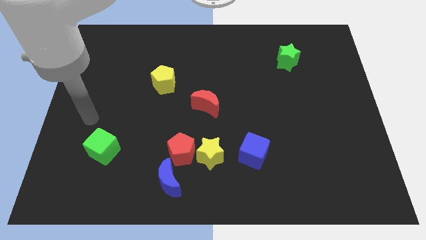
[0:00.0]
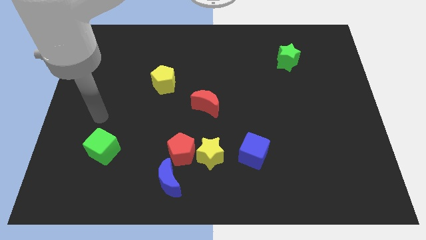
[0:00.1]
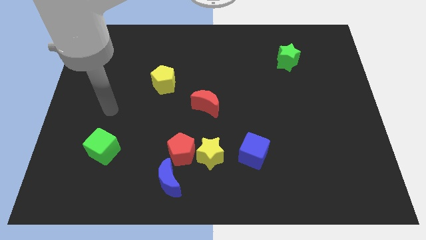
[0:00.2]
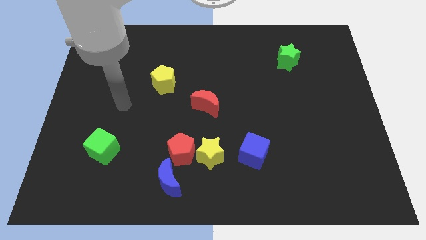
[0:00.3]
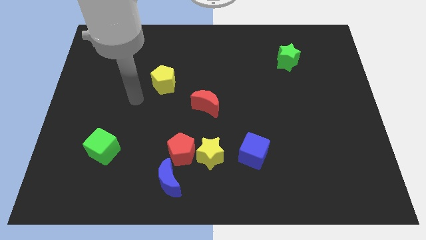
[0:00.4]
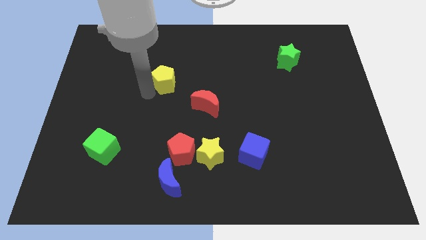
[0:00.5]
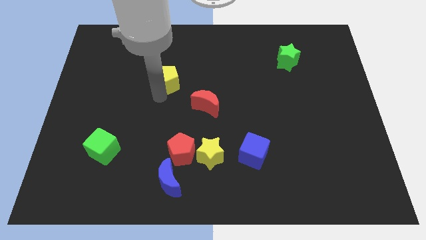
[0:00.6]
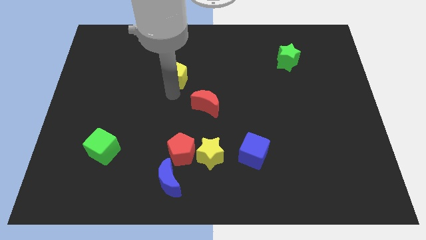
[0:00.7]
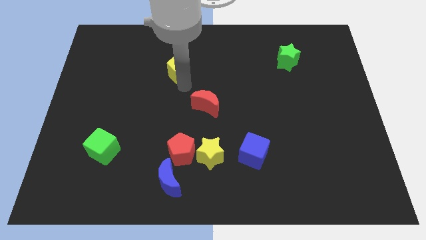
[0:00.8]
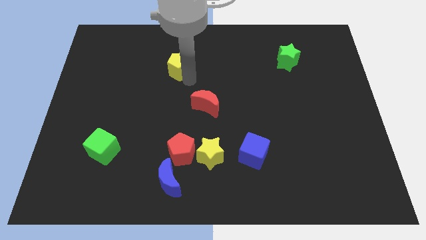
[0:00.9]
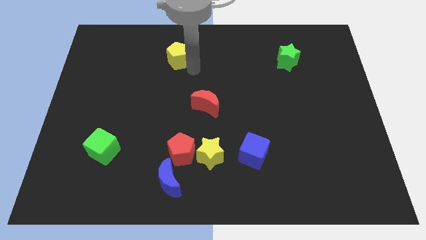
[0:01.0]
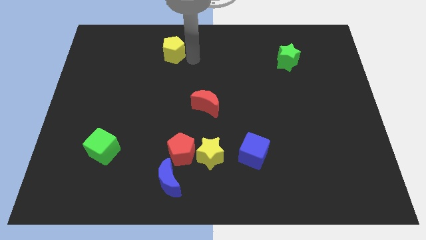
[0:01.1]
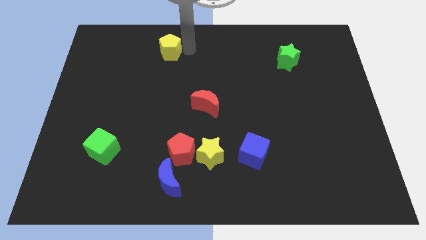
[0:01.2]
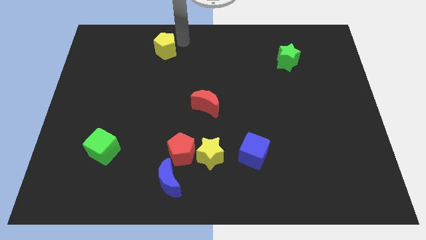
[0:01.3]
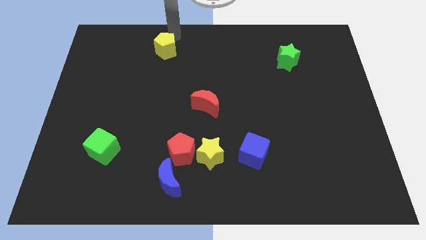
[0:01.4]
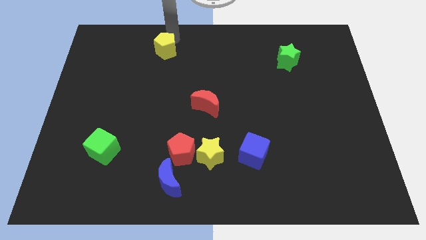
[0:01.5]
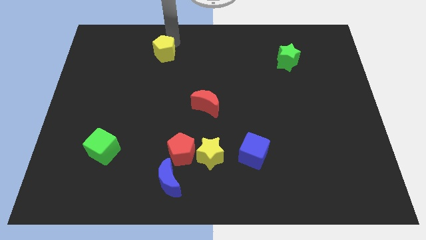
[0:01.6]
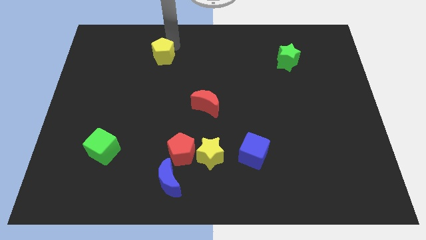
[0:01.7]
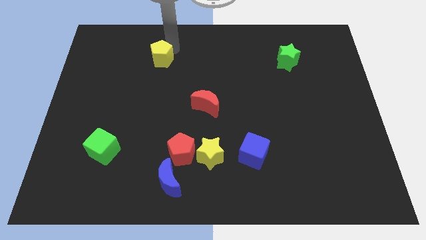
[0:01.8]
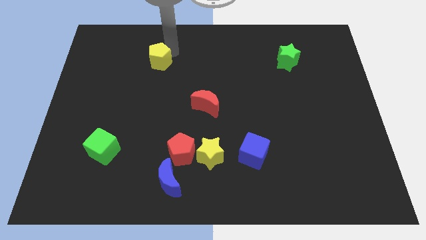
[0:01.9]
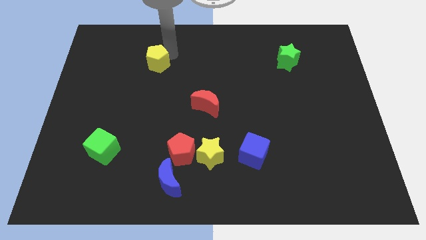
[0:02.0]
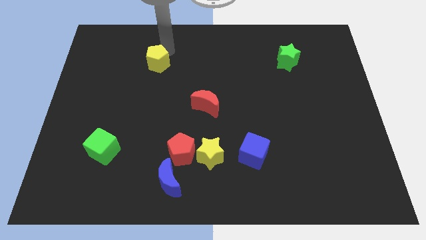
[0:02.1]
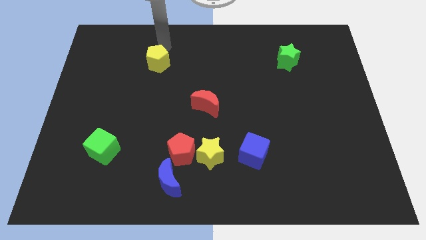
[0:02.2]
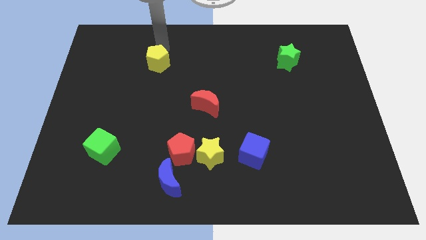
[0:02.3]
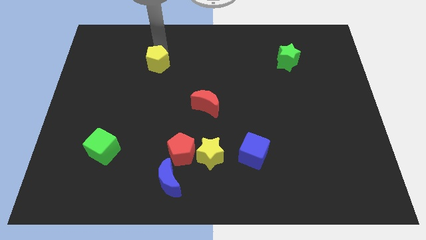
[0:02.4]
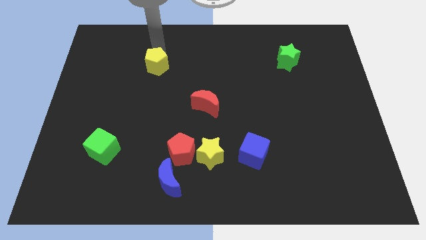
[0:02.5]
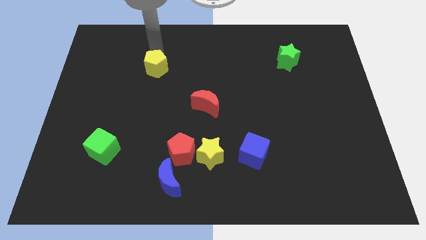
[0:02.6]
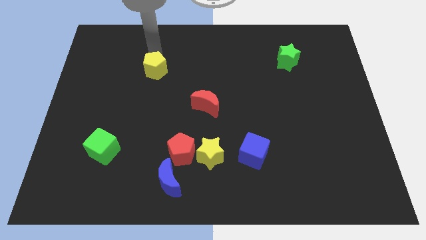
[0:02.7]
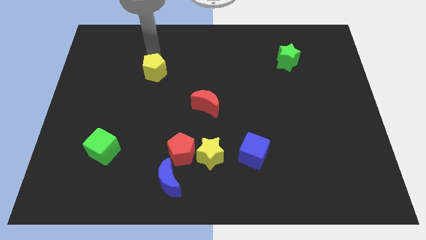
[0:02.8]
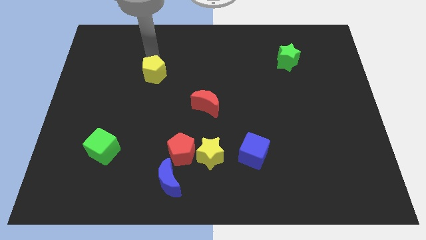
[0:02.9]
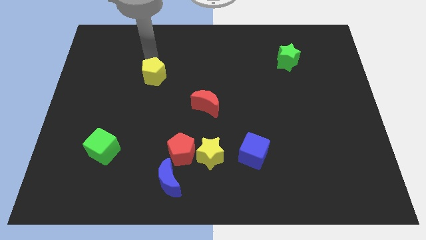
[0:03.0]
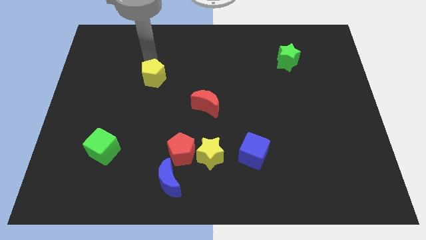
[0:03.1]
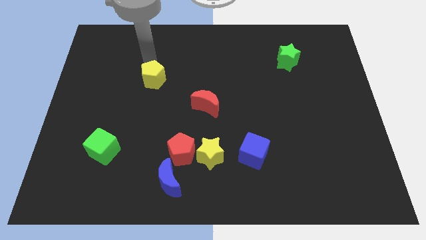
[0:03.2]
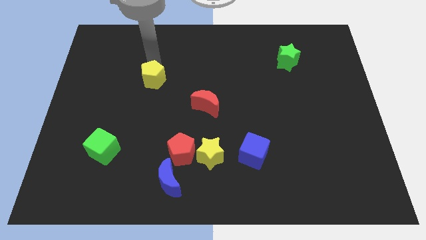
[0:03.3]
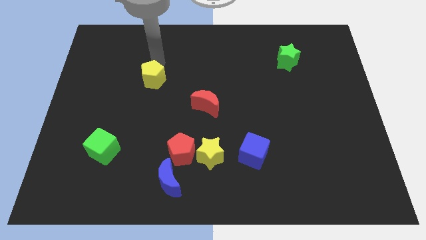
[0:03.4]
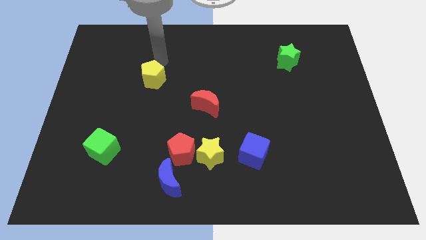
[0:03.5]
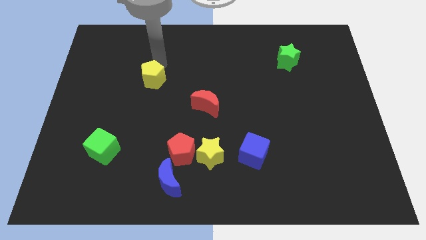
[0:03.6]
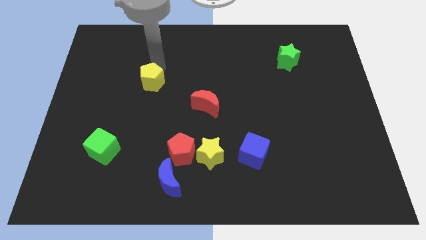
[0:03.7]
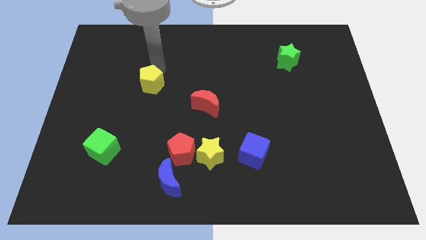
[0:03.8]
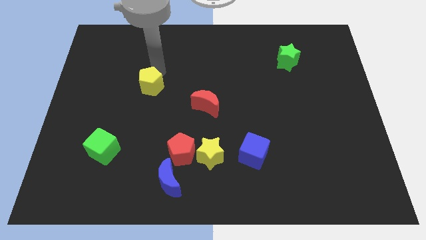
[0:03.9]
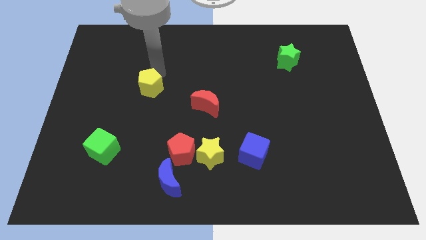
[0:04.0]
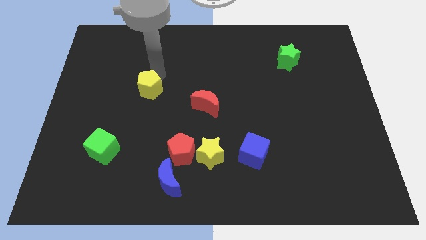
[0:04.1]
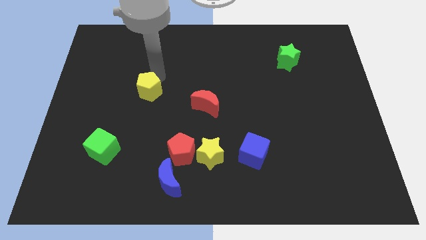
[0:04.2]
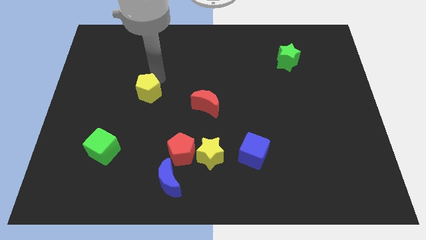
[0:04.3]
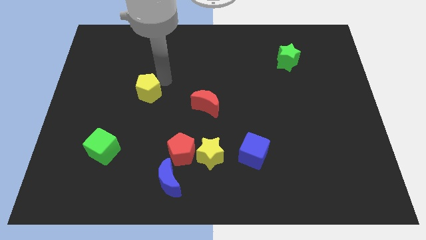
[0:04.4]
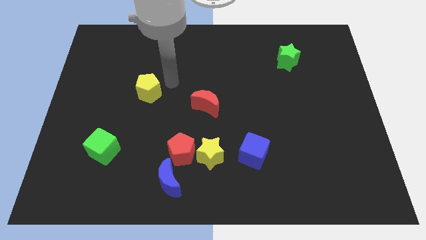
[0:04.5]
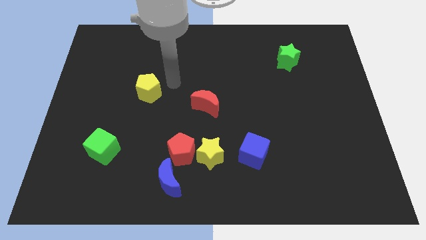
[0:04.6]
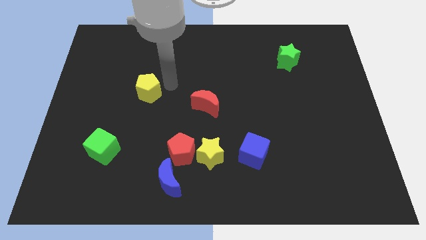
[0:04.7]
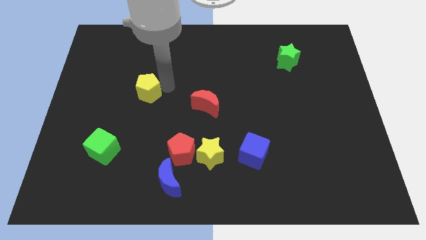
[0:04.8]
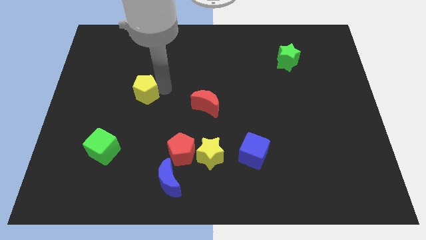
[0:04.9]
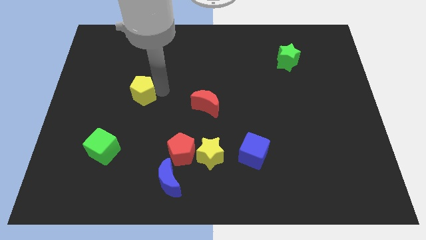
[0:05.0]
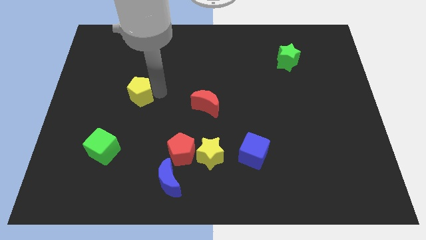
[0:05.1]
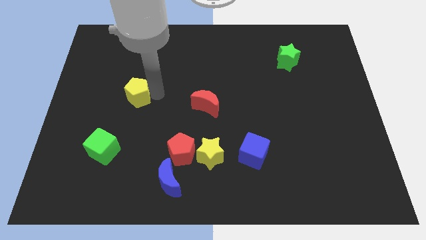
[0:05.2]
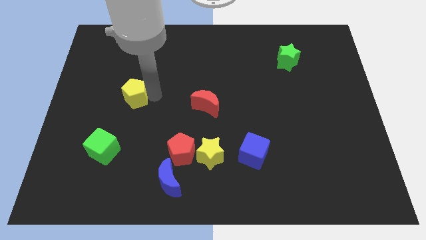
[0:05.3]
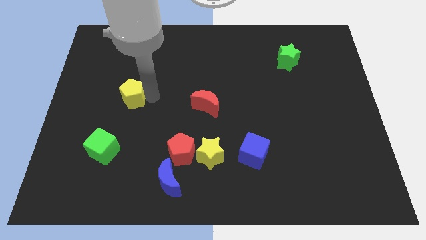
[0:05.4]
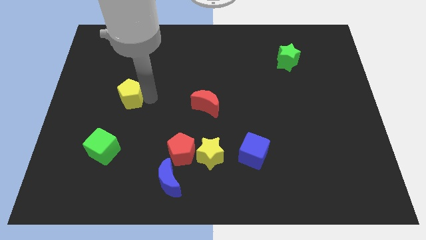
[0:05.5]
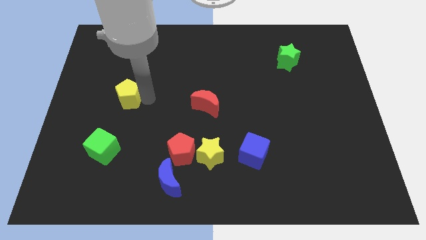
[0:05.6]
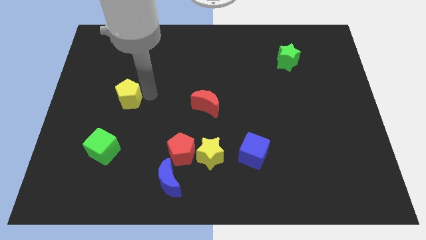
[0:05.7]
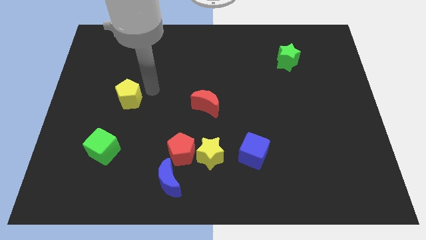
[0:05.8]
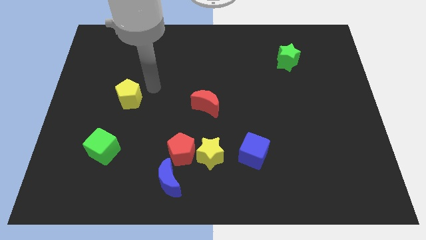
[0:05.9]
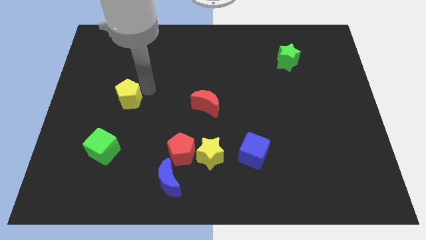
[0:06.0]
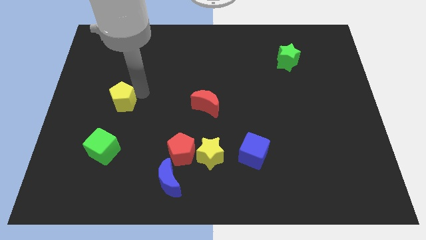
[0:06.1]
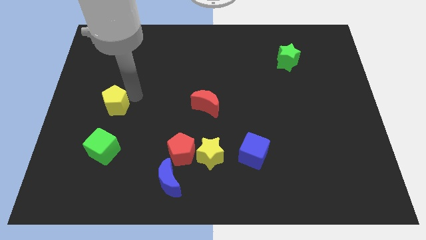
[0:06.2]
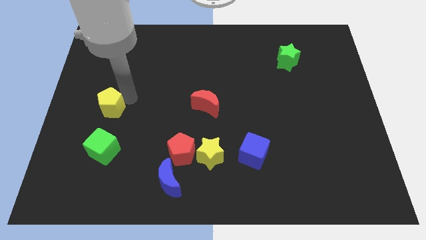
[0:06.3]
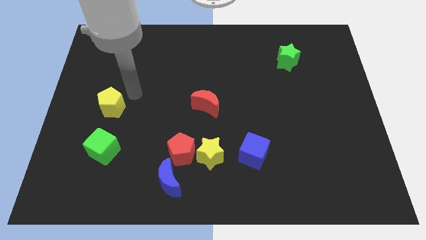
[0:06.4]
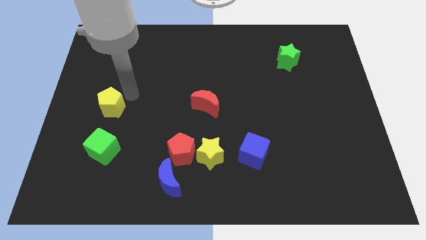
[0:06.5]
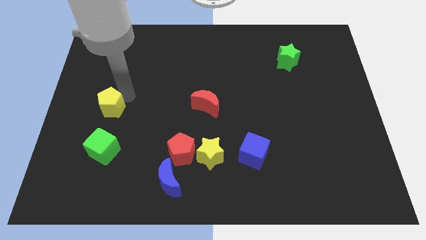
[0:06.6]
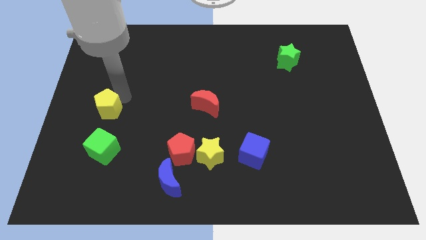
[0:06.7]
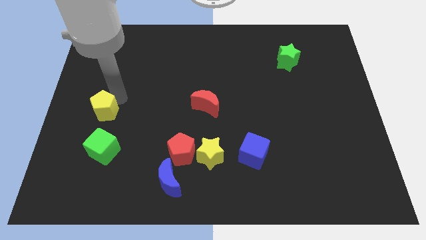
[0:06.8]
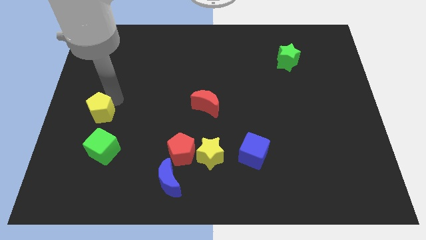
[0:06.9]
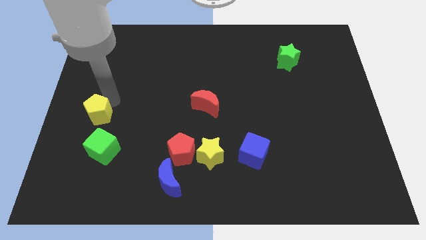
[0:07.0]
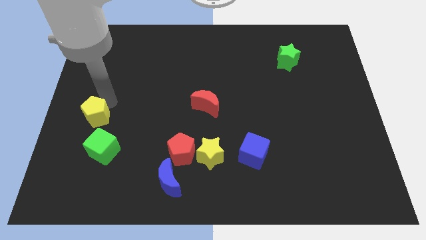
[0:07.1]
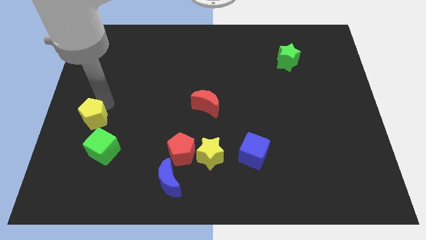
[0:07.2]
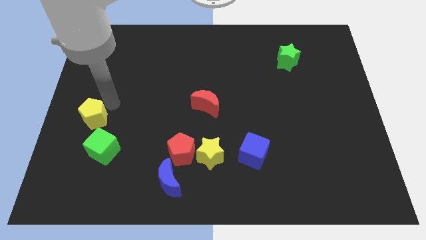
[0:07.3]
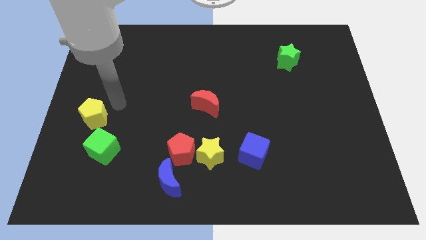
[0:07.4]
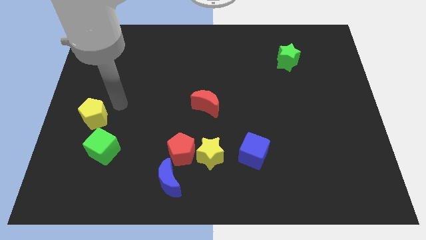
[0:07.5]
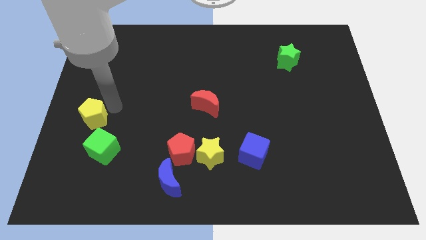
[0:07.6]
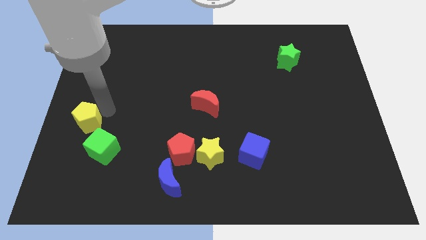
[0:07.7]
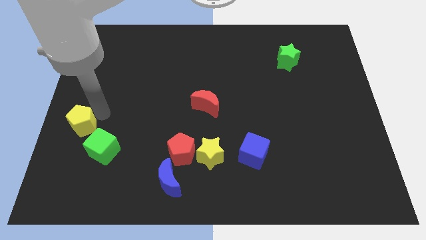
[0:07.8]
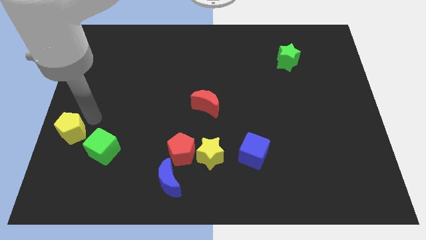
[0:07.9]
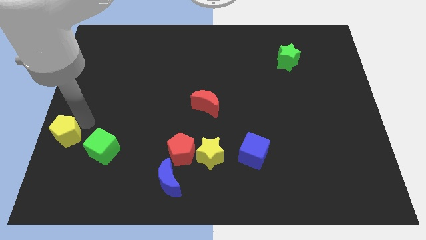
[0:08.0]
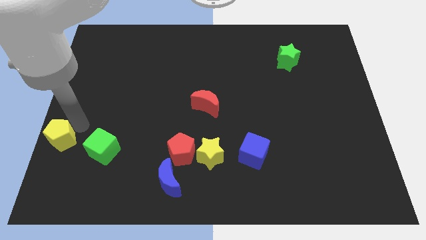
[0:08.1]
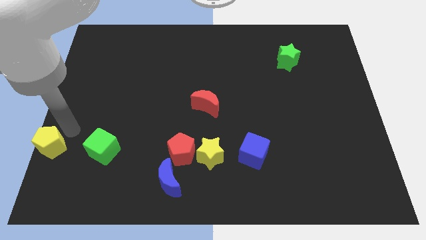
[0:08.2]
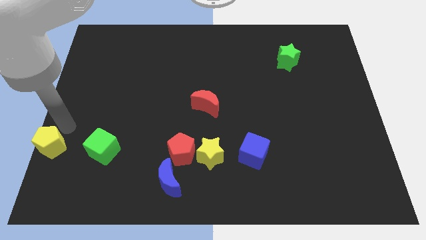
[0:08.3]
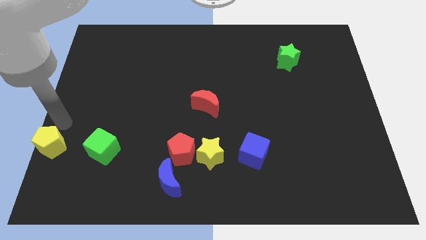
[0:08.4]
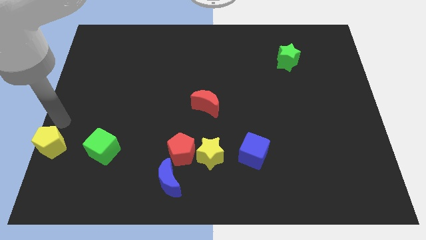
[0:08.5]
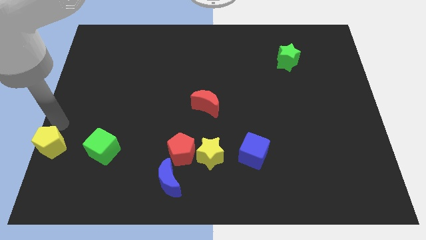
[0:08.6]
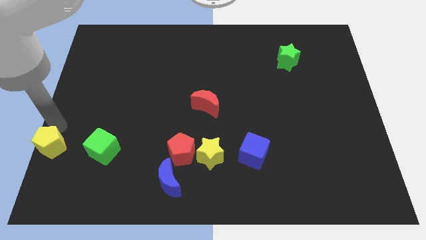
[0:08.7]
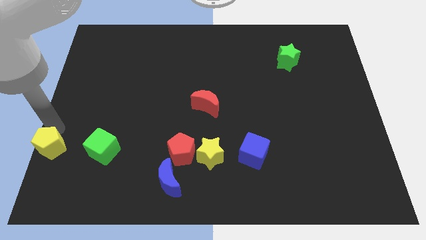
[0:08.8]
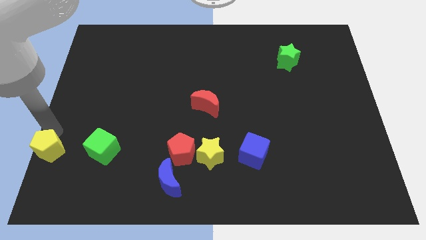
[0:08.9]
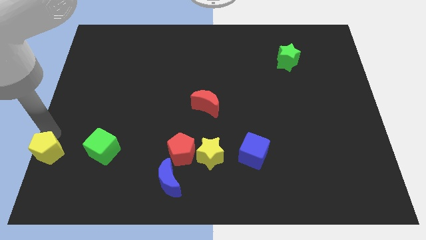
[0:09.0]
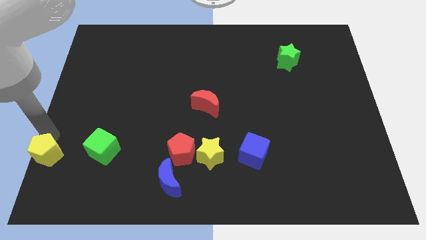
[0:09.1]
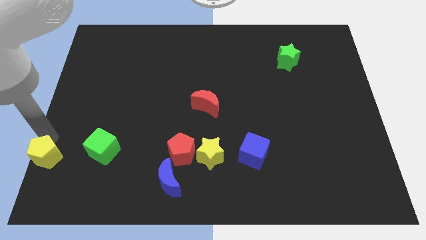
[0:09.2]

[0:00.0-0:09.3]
push the yellow pentagon to the bottom left
